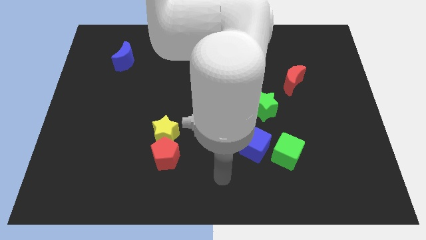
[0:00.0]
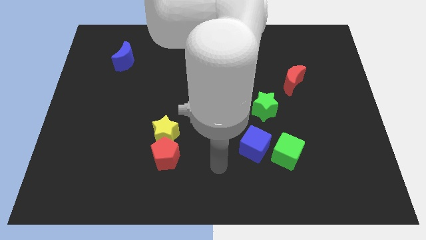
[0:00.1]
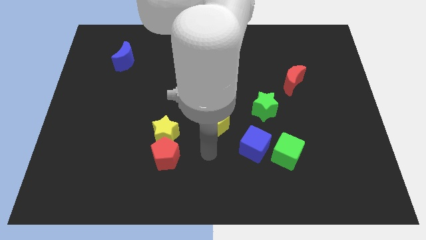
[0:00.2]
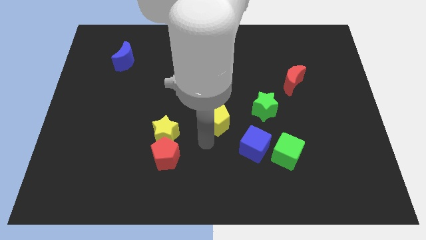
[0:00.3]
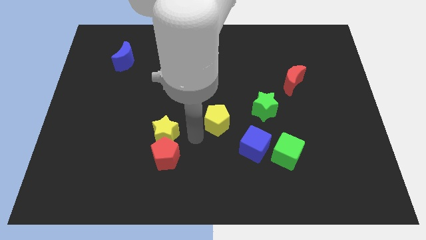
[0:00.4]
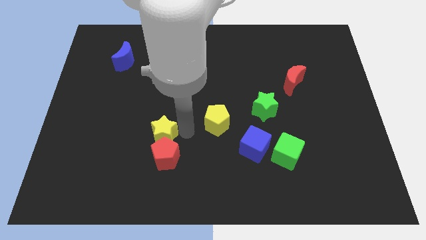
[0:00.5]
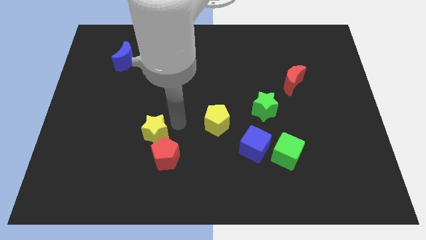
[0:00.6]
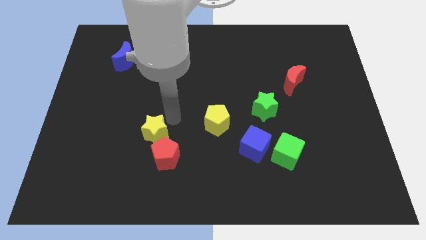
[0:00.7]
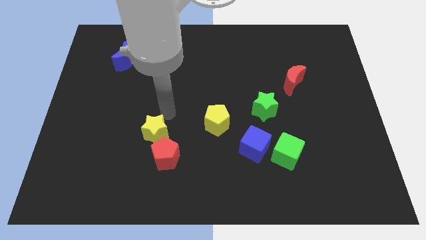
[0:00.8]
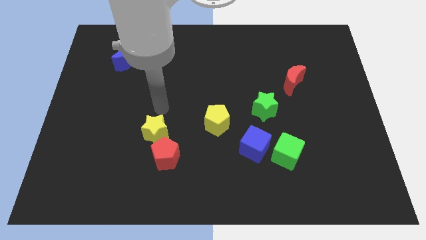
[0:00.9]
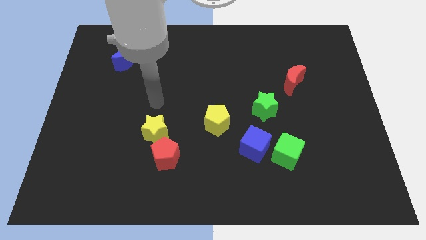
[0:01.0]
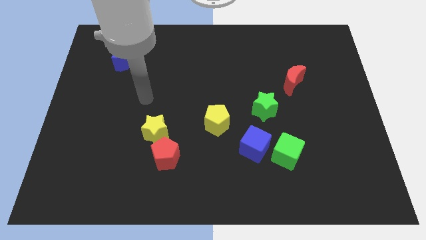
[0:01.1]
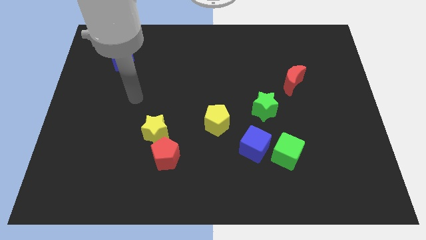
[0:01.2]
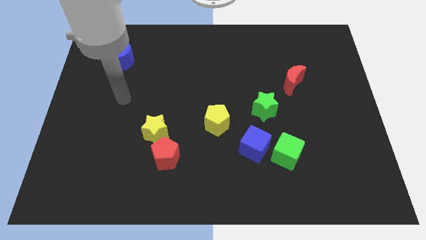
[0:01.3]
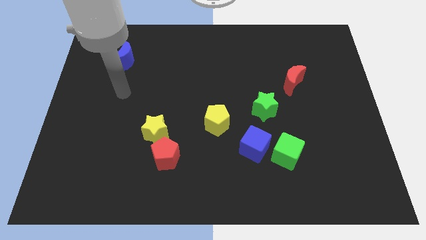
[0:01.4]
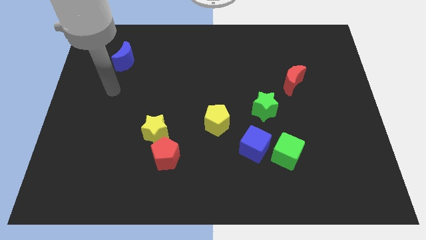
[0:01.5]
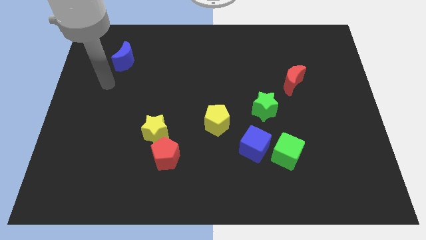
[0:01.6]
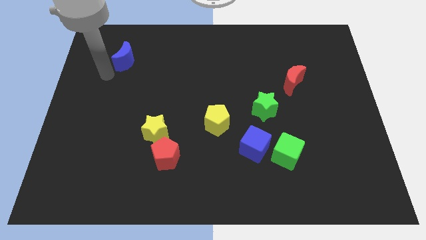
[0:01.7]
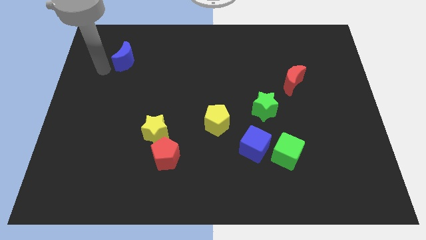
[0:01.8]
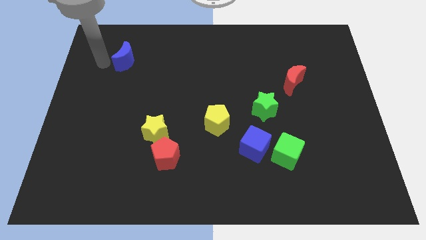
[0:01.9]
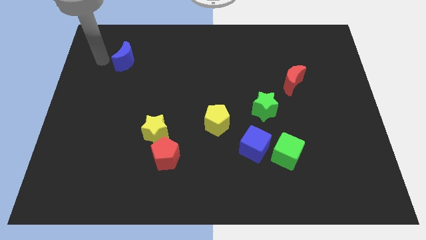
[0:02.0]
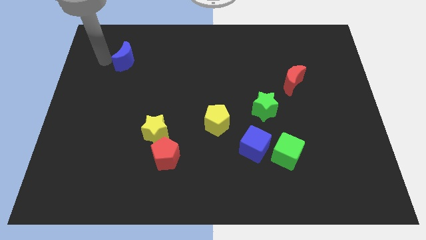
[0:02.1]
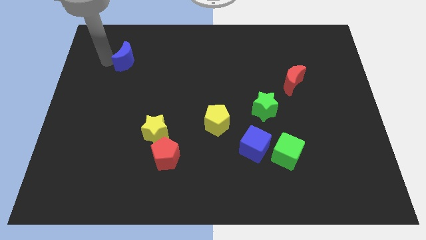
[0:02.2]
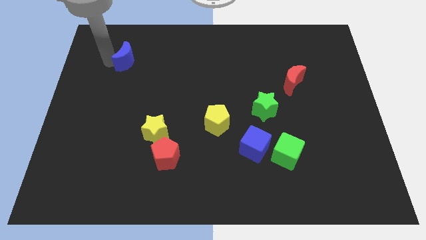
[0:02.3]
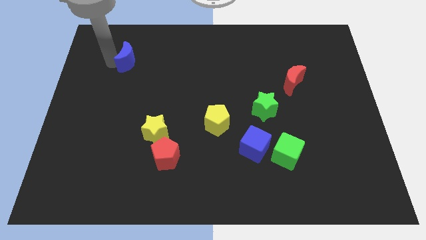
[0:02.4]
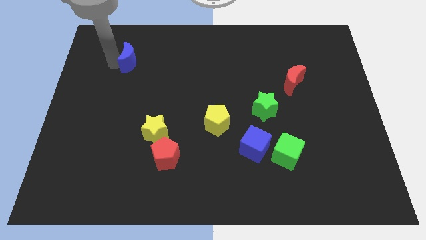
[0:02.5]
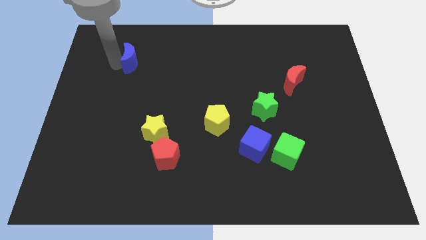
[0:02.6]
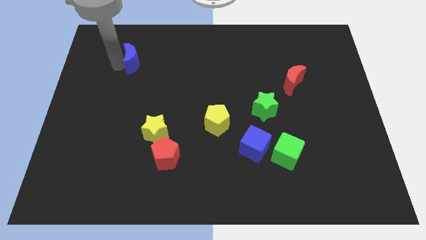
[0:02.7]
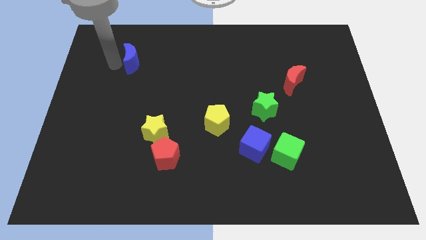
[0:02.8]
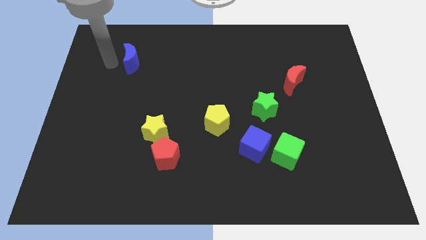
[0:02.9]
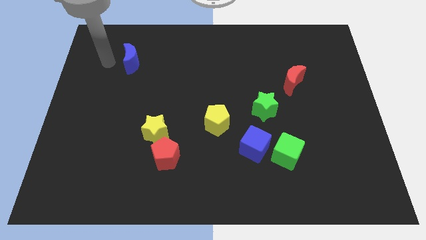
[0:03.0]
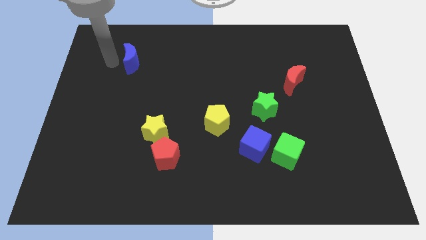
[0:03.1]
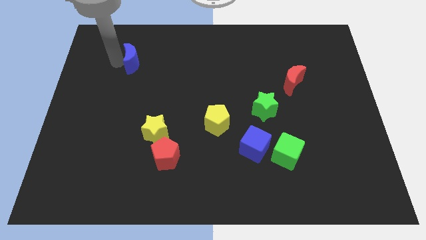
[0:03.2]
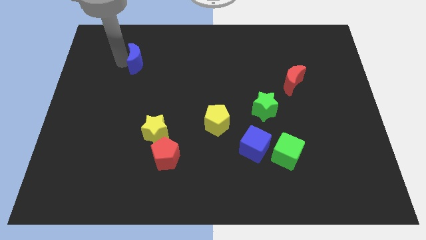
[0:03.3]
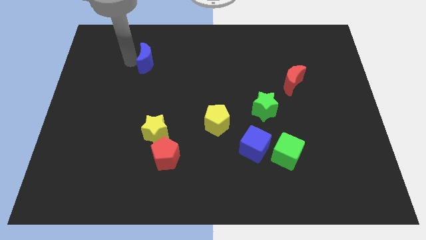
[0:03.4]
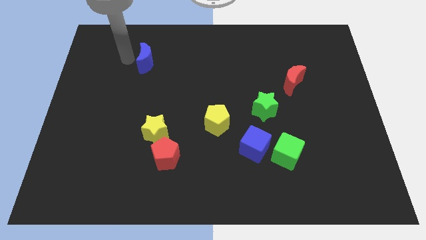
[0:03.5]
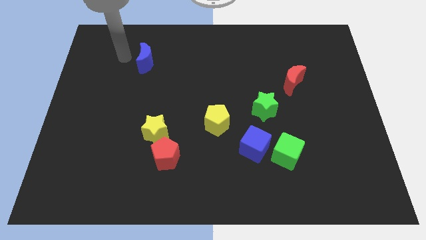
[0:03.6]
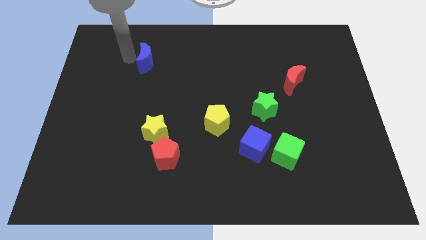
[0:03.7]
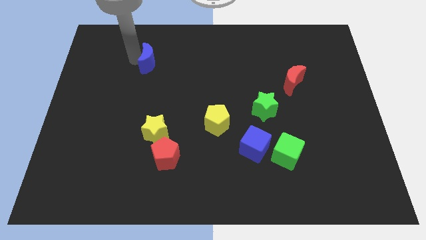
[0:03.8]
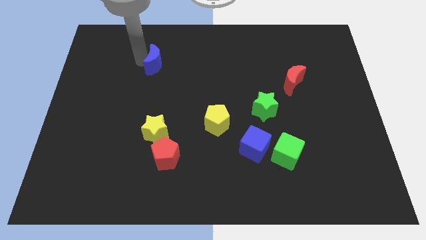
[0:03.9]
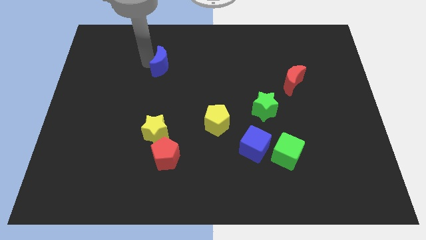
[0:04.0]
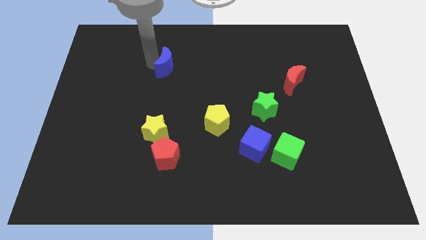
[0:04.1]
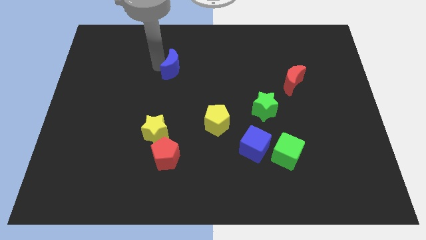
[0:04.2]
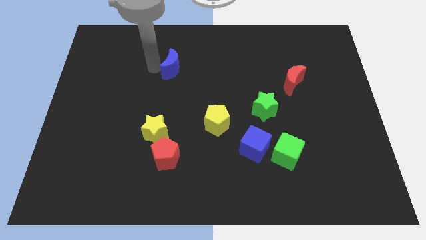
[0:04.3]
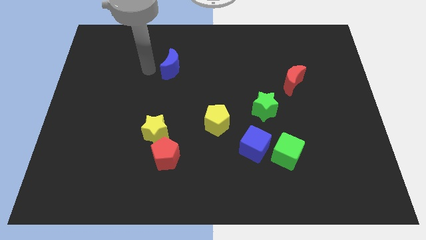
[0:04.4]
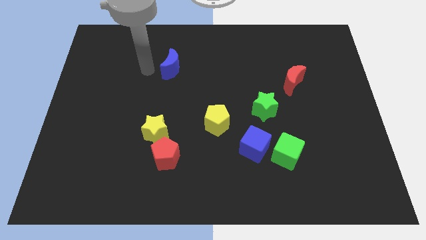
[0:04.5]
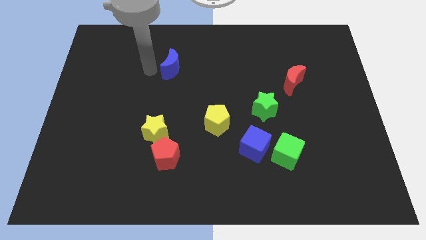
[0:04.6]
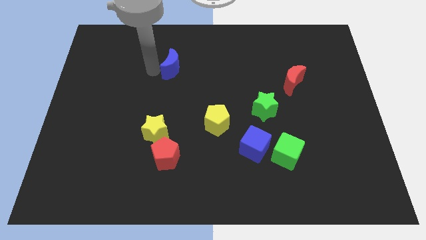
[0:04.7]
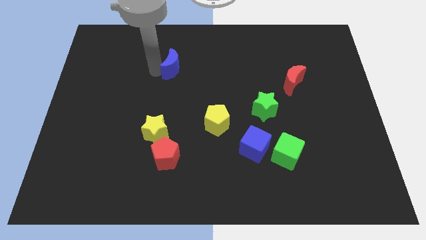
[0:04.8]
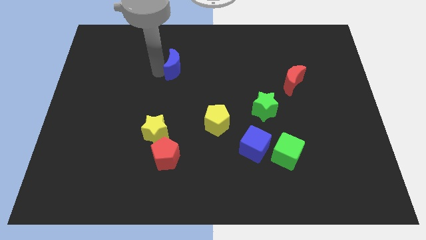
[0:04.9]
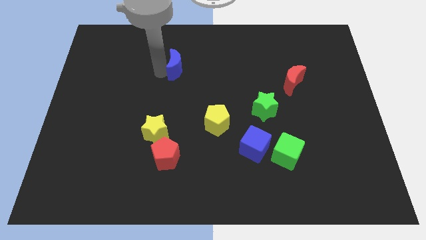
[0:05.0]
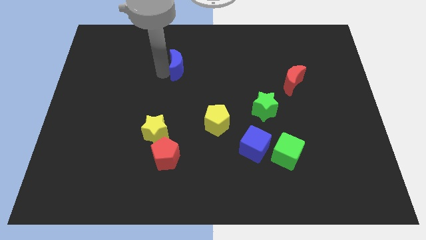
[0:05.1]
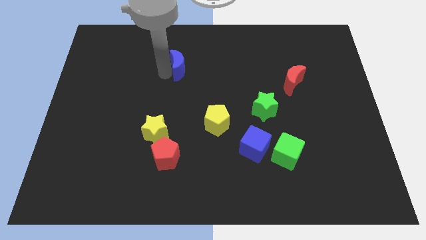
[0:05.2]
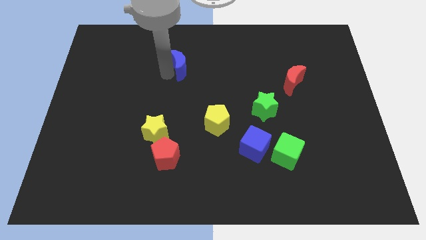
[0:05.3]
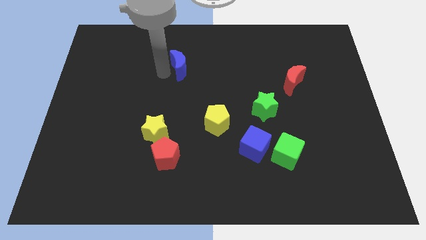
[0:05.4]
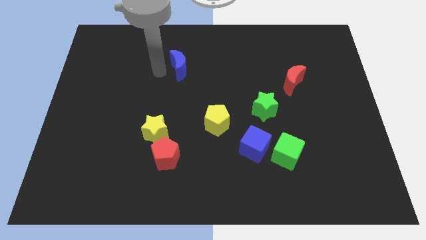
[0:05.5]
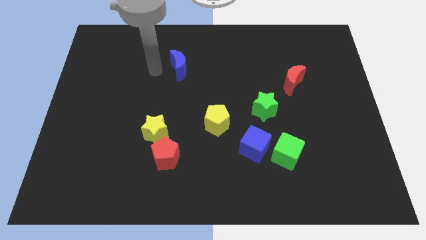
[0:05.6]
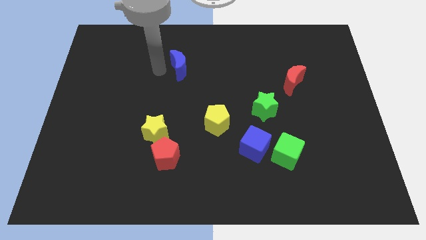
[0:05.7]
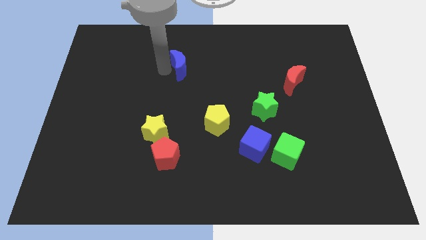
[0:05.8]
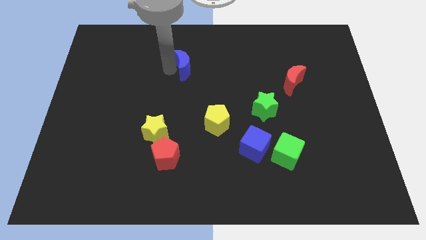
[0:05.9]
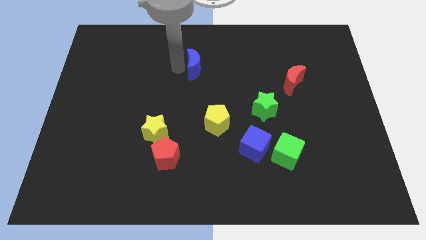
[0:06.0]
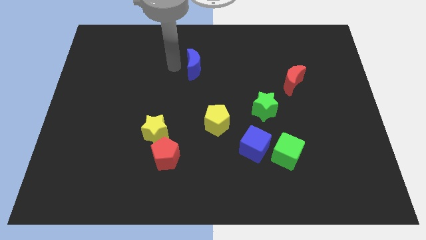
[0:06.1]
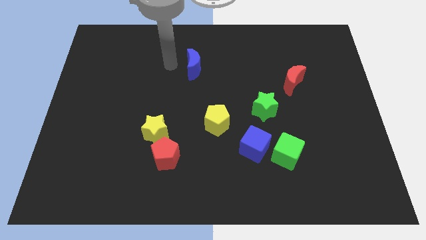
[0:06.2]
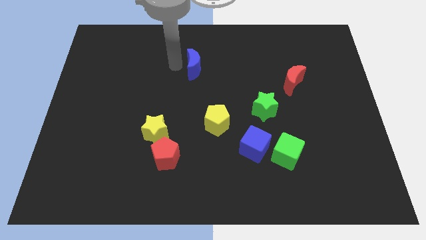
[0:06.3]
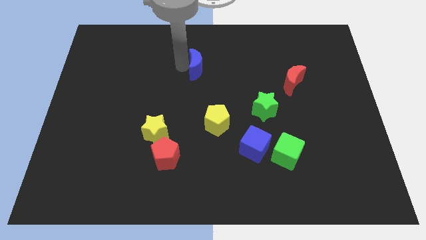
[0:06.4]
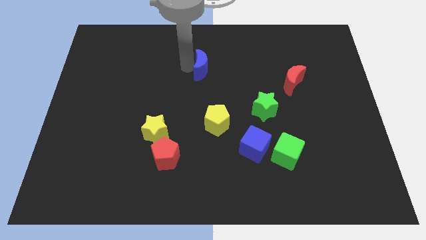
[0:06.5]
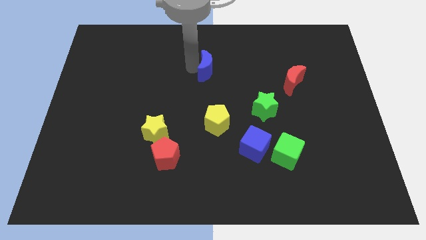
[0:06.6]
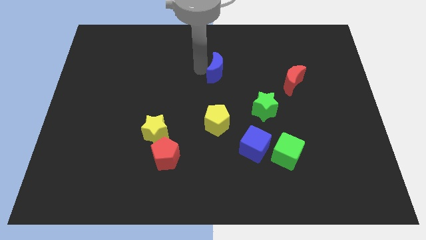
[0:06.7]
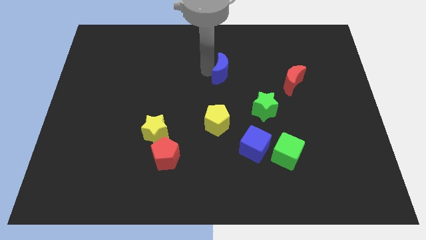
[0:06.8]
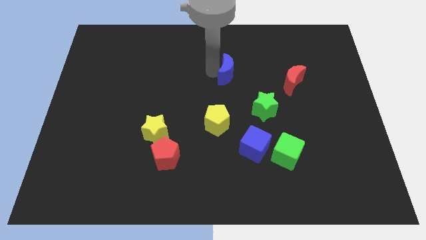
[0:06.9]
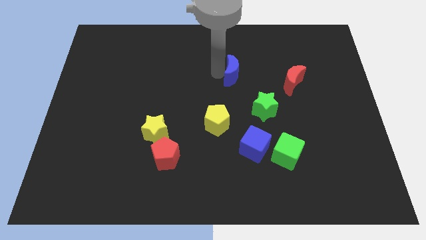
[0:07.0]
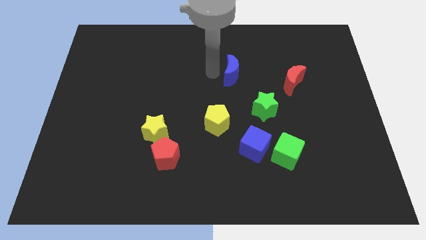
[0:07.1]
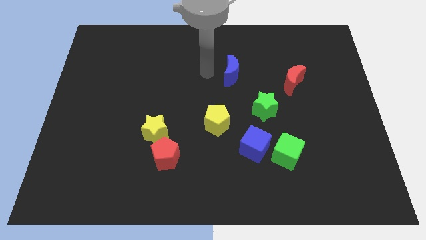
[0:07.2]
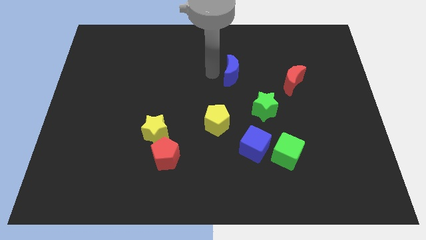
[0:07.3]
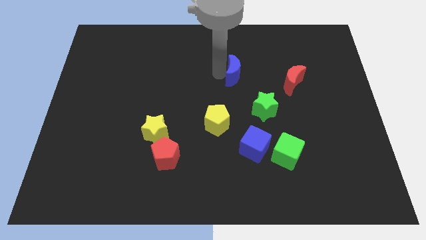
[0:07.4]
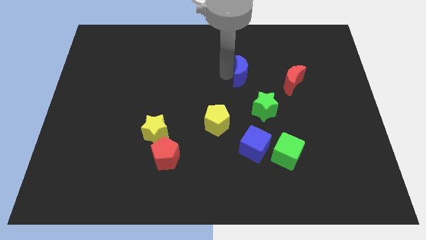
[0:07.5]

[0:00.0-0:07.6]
slide the blue moon to the top of the green star

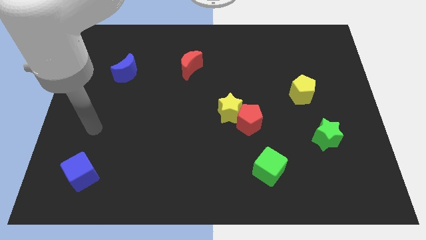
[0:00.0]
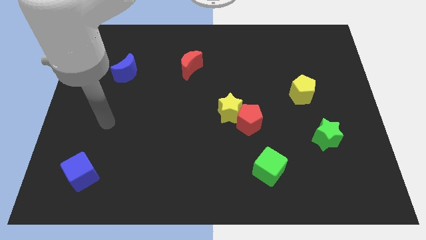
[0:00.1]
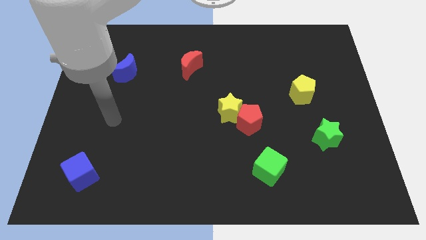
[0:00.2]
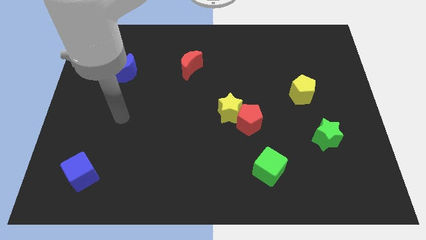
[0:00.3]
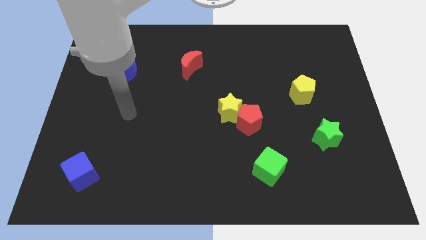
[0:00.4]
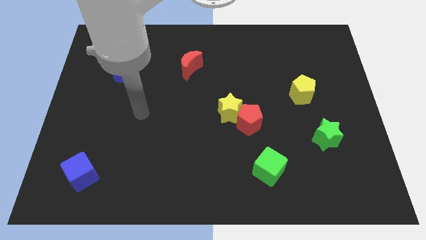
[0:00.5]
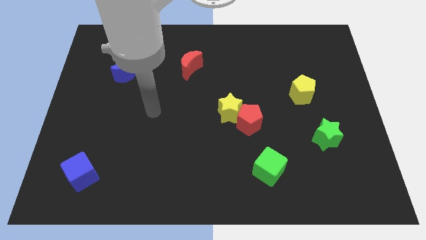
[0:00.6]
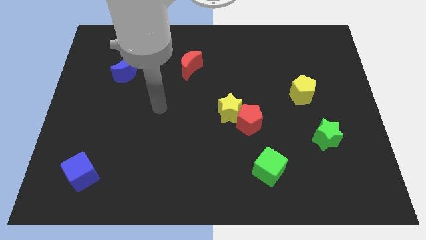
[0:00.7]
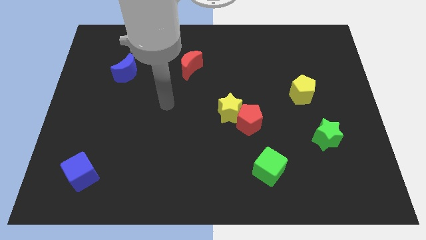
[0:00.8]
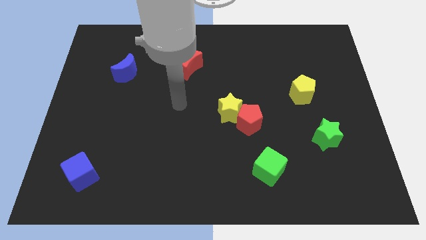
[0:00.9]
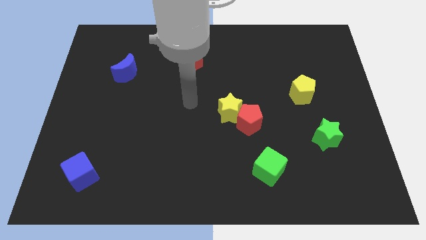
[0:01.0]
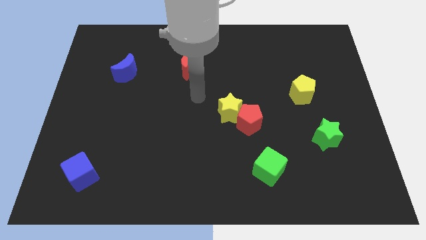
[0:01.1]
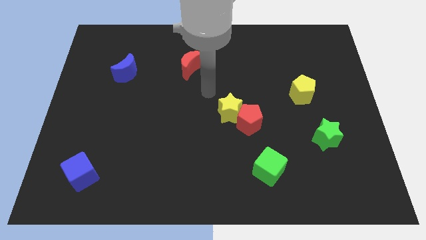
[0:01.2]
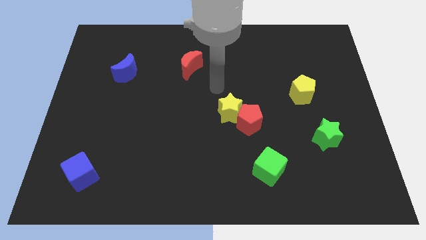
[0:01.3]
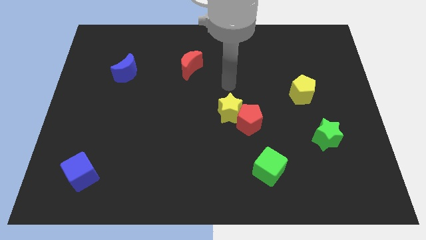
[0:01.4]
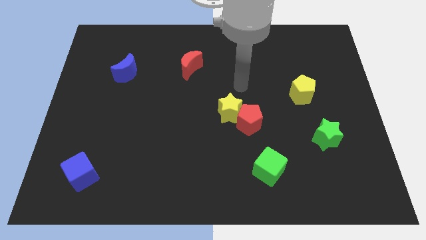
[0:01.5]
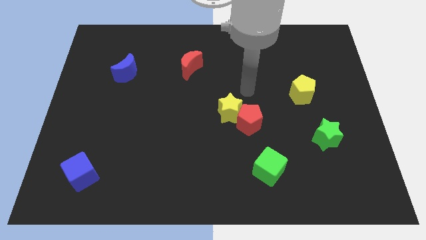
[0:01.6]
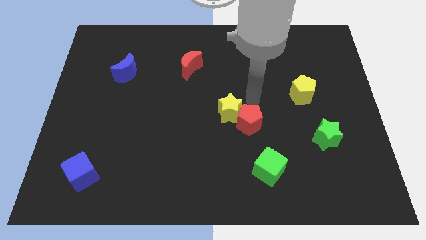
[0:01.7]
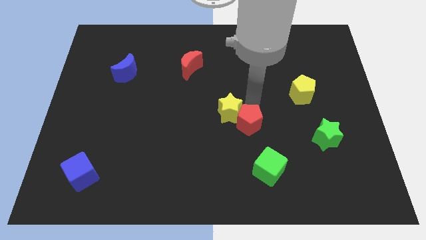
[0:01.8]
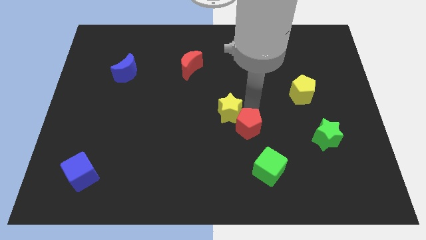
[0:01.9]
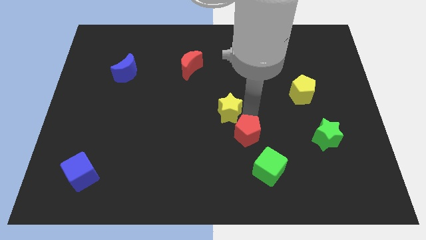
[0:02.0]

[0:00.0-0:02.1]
slide the red pentagon diagonally up and to the left of the green cube
